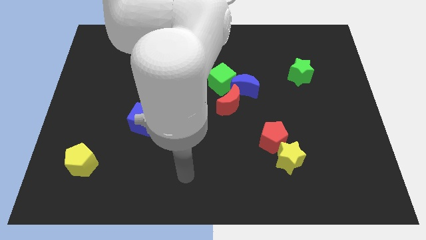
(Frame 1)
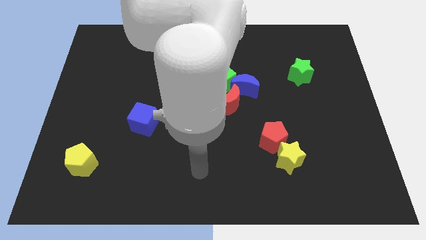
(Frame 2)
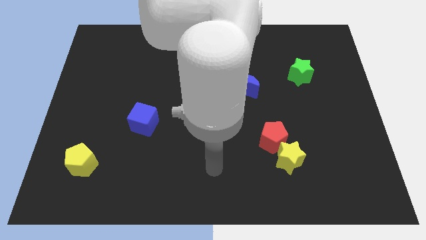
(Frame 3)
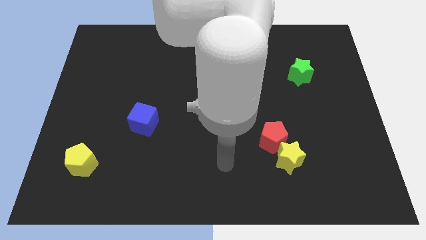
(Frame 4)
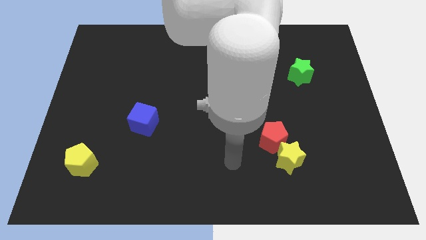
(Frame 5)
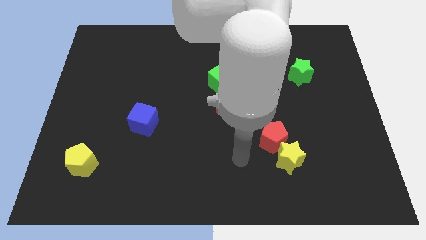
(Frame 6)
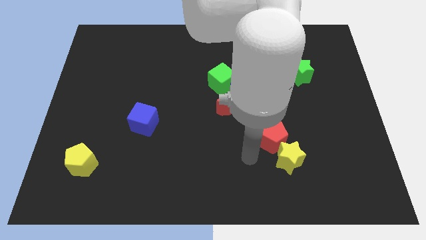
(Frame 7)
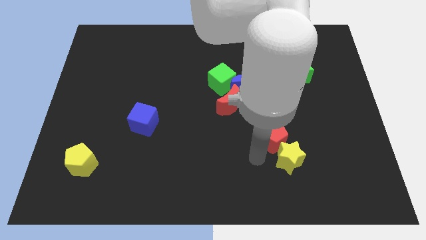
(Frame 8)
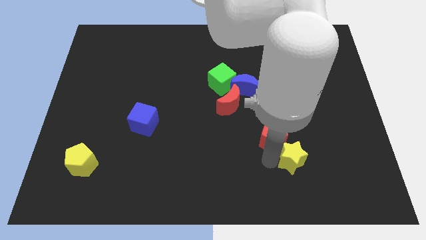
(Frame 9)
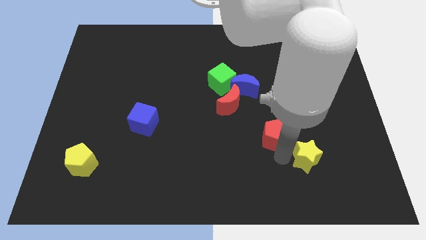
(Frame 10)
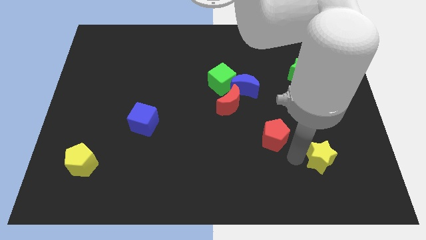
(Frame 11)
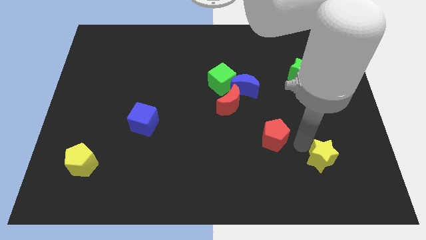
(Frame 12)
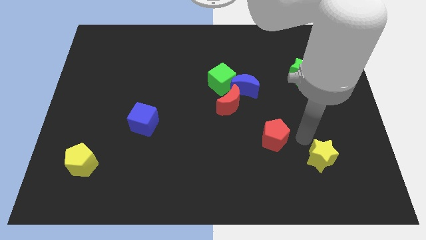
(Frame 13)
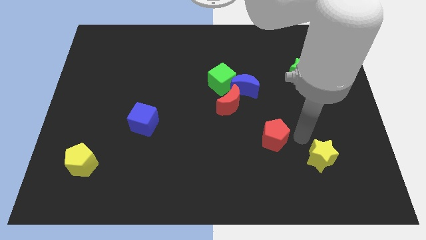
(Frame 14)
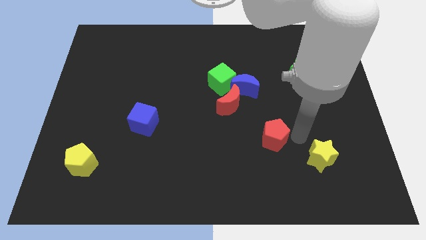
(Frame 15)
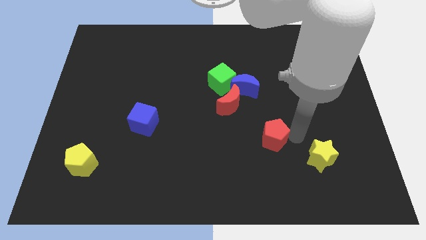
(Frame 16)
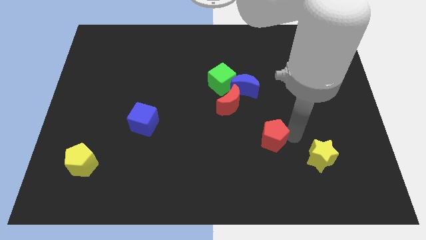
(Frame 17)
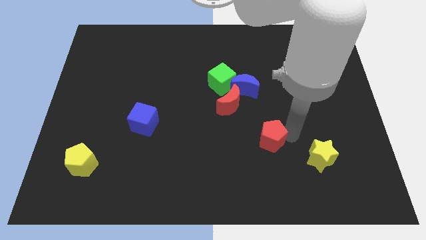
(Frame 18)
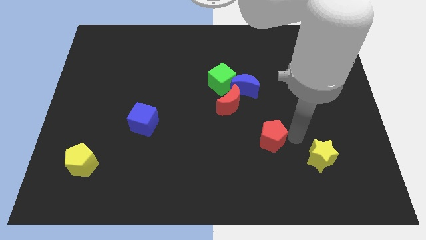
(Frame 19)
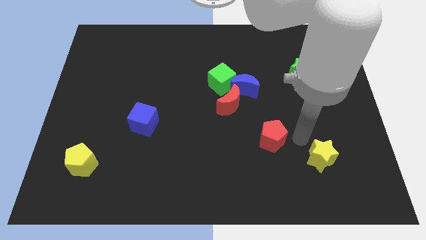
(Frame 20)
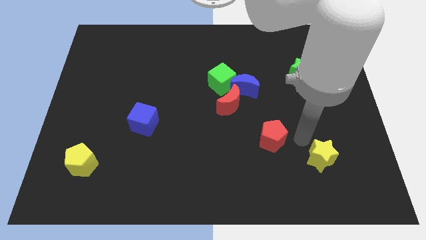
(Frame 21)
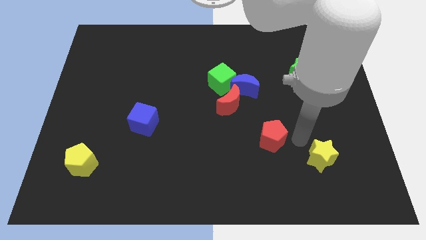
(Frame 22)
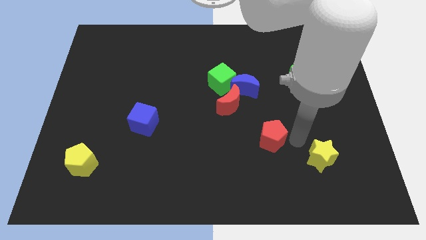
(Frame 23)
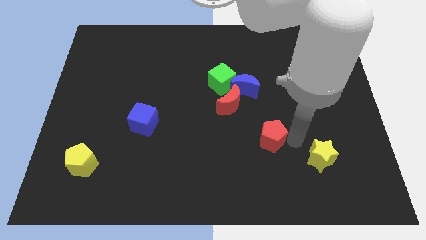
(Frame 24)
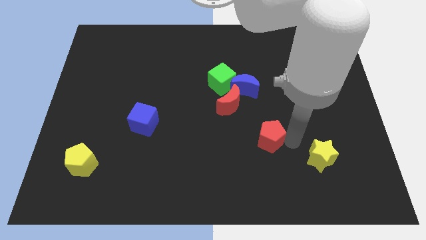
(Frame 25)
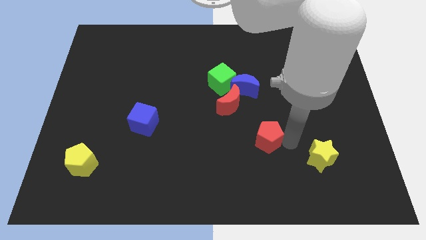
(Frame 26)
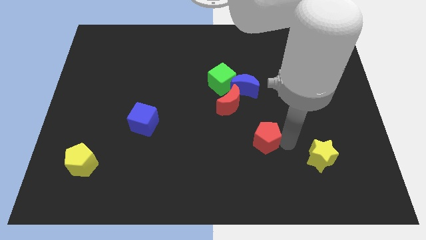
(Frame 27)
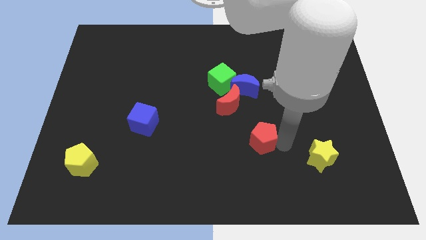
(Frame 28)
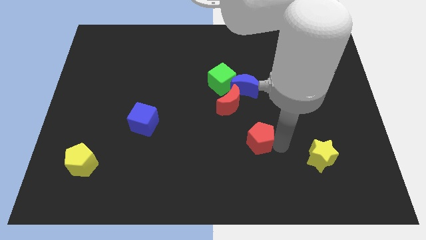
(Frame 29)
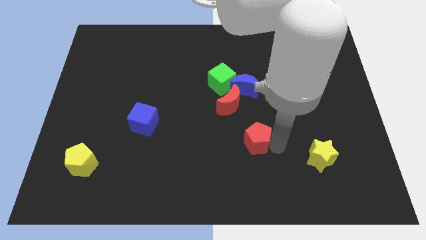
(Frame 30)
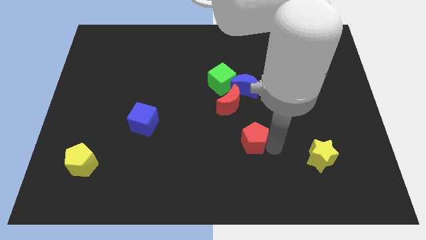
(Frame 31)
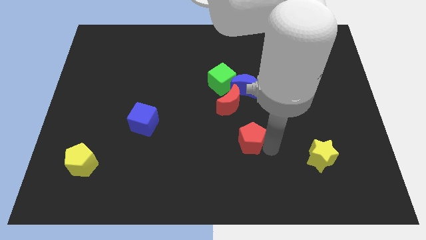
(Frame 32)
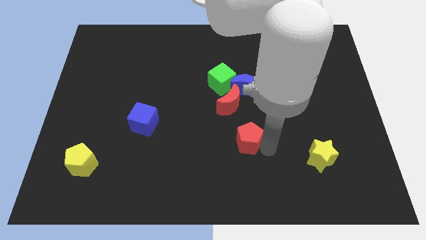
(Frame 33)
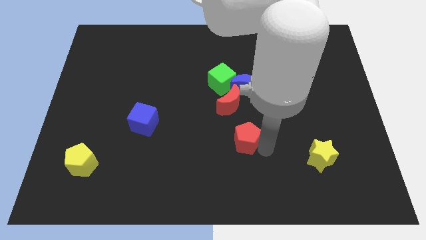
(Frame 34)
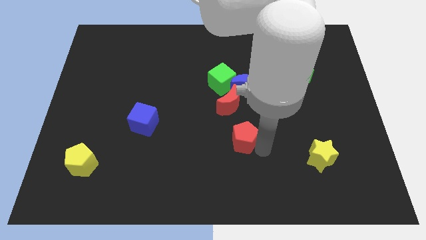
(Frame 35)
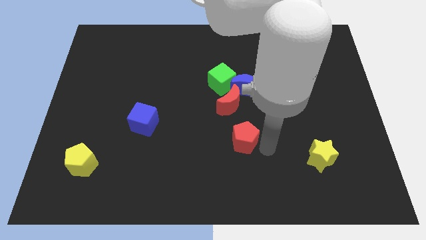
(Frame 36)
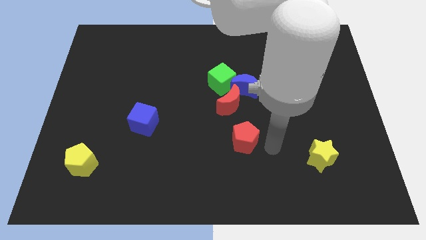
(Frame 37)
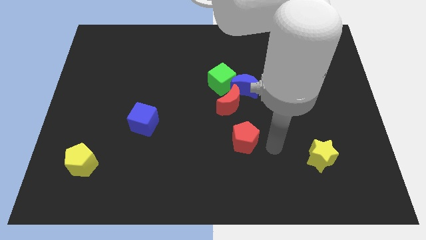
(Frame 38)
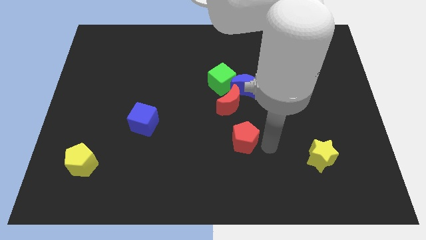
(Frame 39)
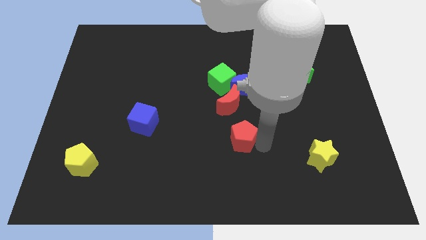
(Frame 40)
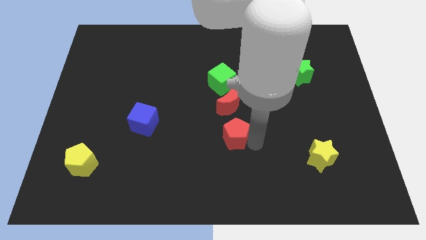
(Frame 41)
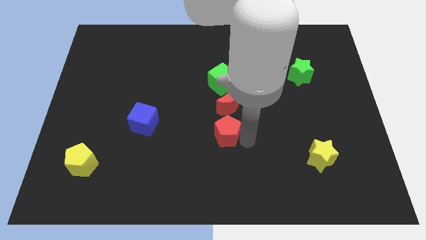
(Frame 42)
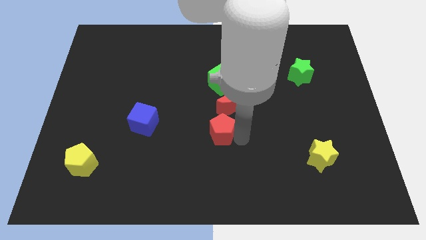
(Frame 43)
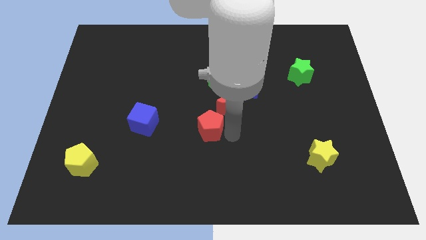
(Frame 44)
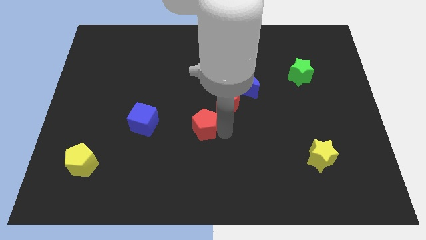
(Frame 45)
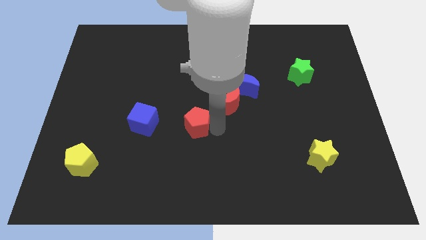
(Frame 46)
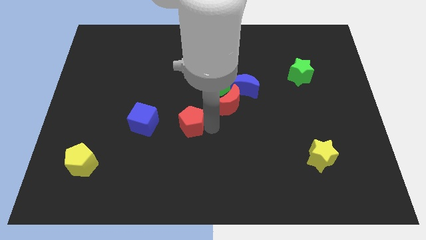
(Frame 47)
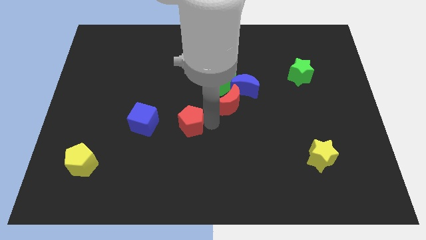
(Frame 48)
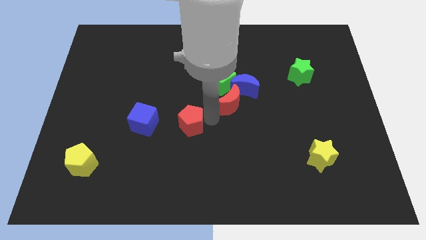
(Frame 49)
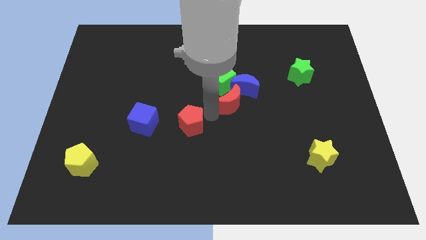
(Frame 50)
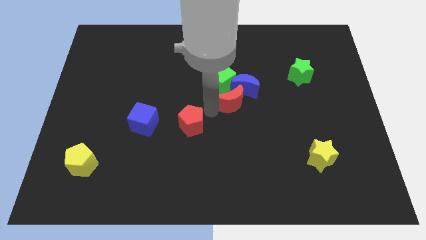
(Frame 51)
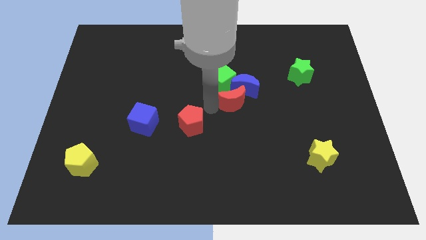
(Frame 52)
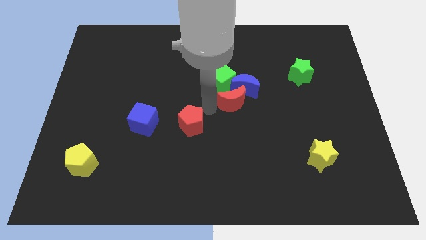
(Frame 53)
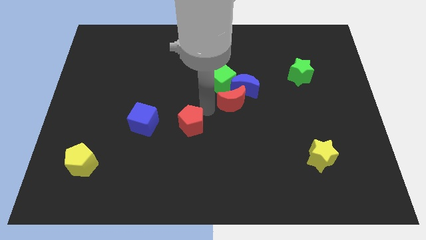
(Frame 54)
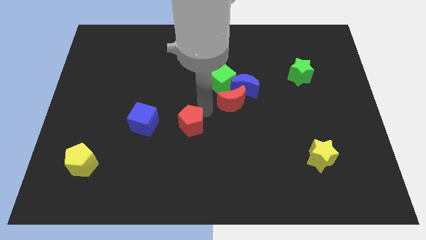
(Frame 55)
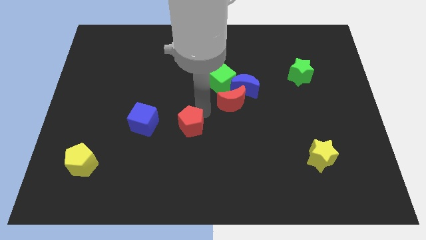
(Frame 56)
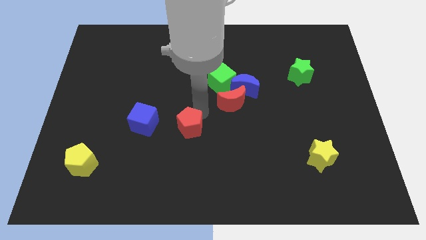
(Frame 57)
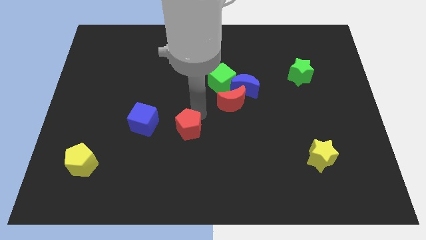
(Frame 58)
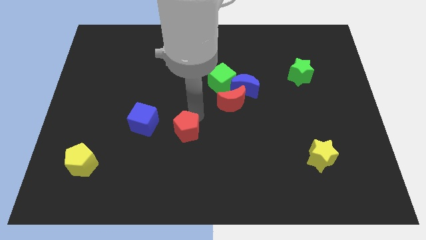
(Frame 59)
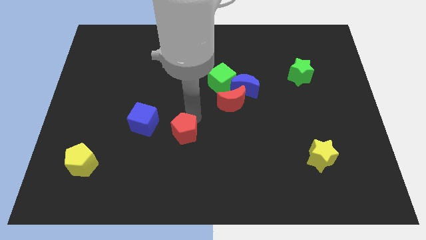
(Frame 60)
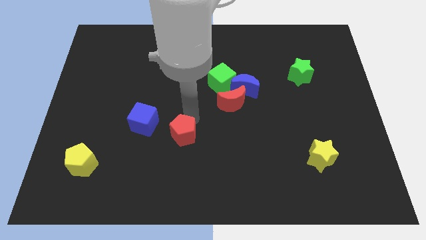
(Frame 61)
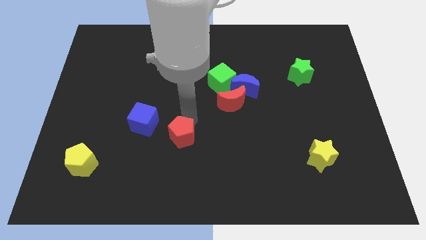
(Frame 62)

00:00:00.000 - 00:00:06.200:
move the red pentagon to the left

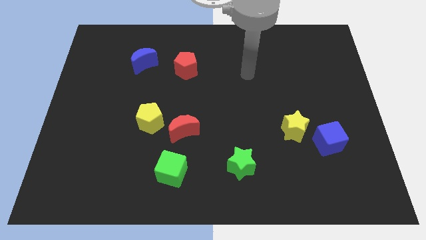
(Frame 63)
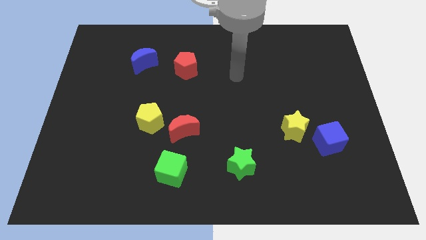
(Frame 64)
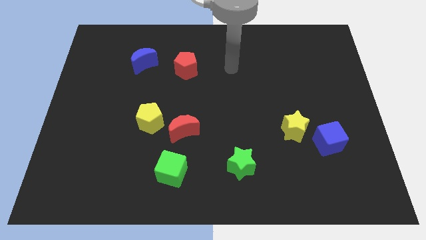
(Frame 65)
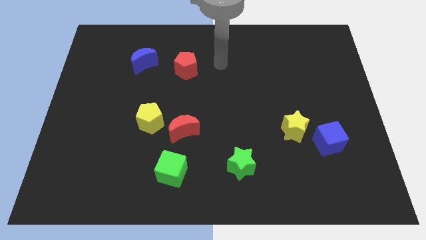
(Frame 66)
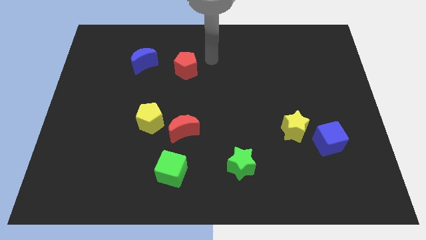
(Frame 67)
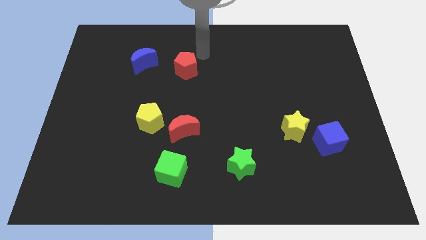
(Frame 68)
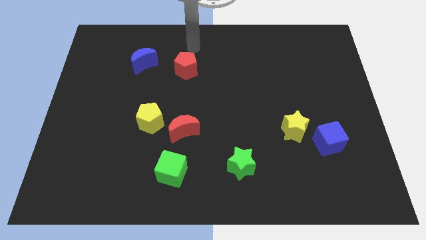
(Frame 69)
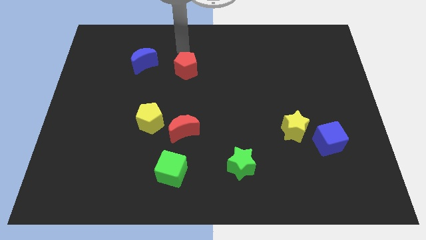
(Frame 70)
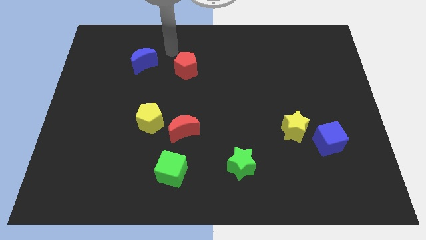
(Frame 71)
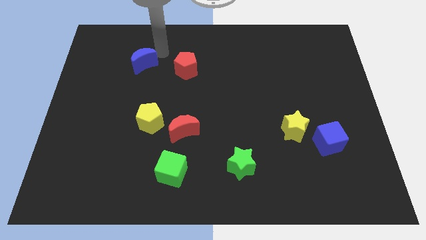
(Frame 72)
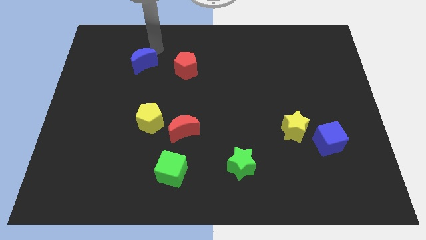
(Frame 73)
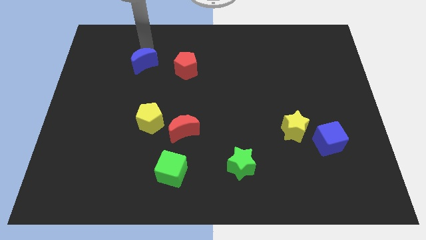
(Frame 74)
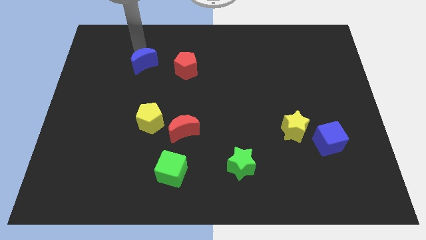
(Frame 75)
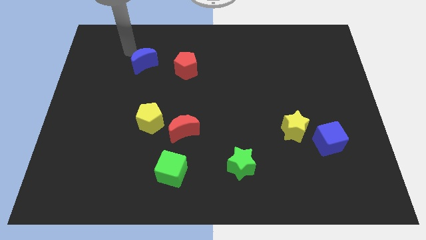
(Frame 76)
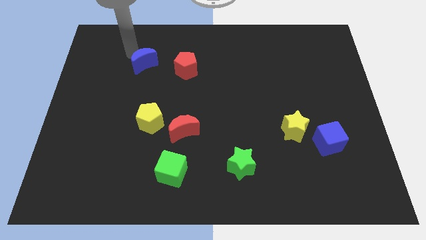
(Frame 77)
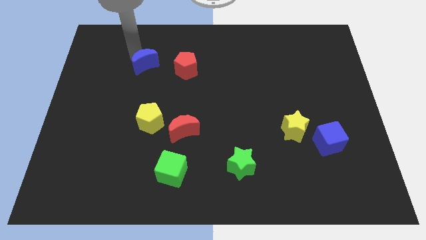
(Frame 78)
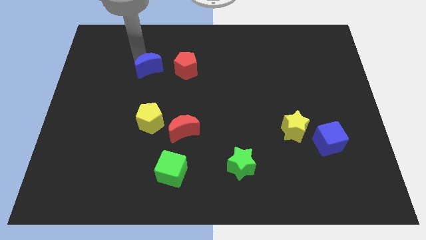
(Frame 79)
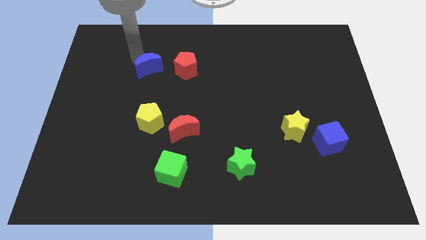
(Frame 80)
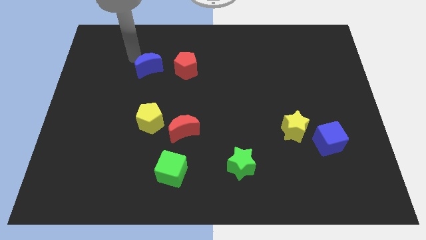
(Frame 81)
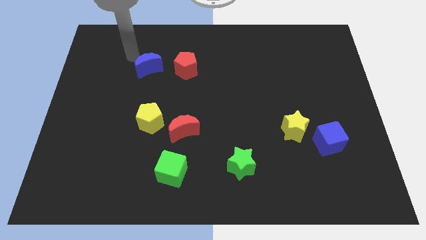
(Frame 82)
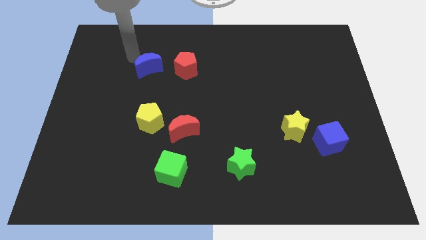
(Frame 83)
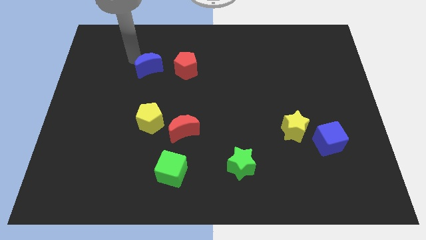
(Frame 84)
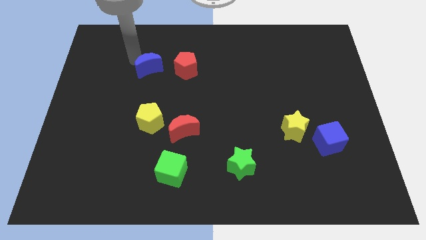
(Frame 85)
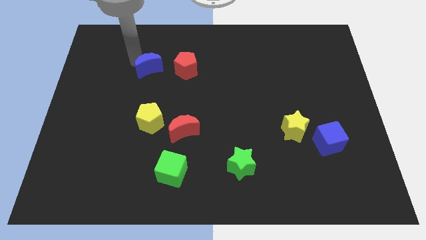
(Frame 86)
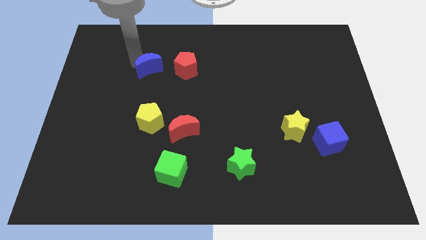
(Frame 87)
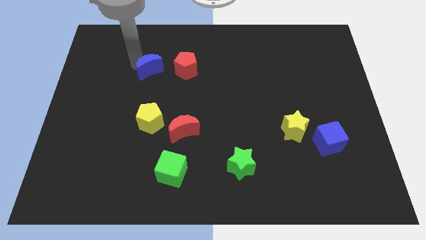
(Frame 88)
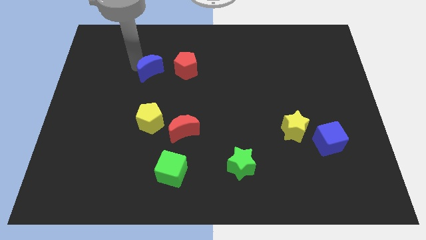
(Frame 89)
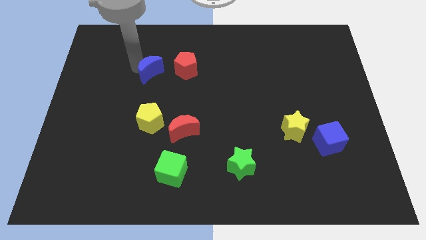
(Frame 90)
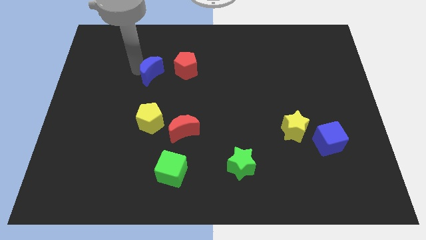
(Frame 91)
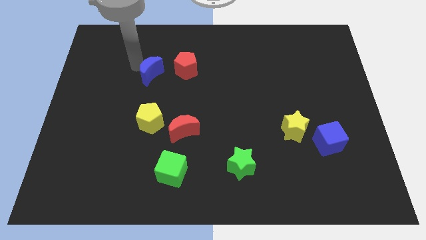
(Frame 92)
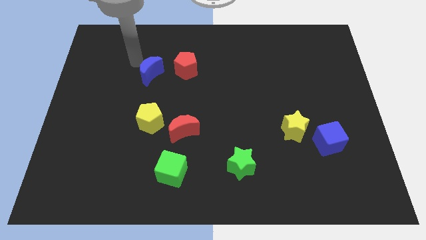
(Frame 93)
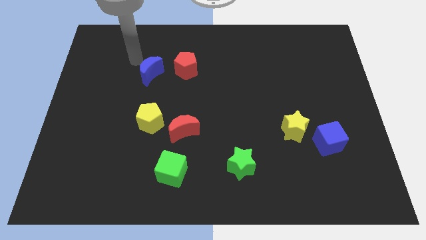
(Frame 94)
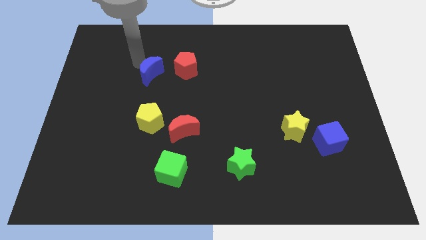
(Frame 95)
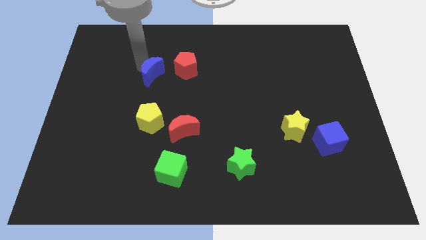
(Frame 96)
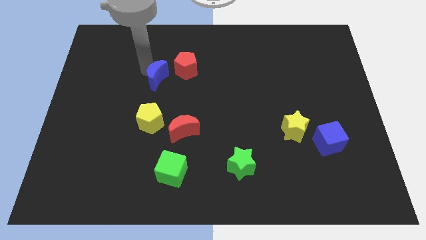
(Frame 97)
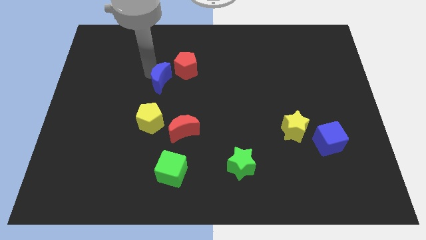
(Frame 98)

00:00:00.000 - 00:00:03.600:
move the blue moon down and right diagonally a little bit
